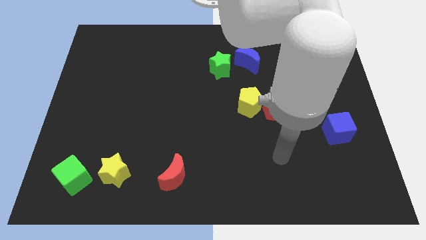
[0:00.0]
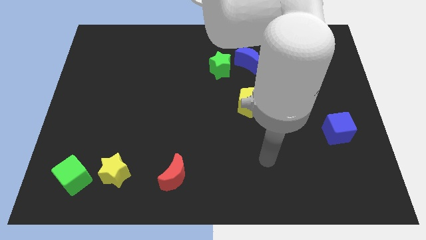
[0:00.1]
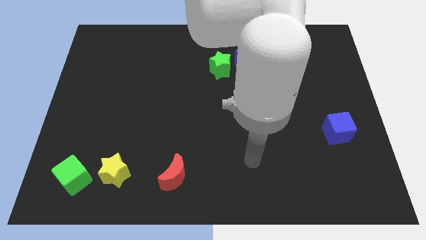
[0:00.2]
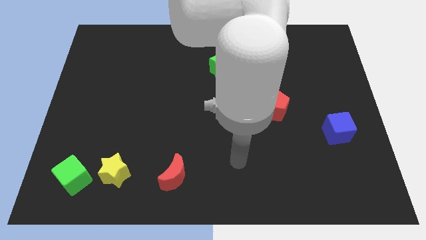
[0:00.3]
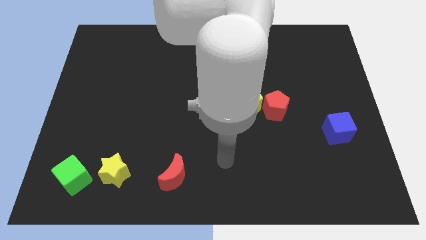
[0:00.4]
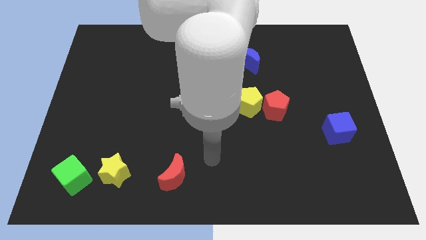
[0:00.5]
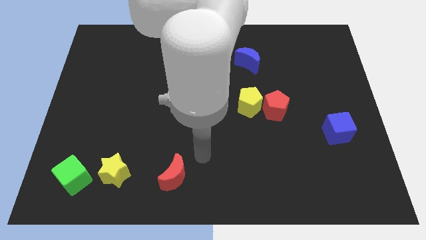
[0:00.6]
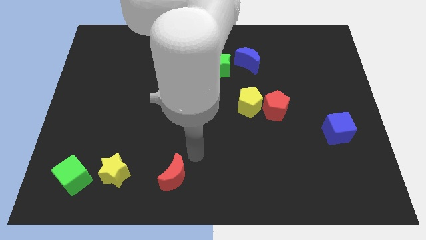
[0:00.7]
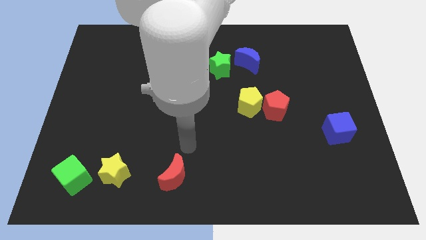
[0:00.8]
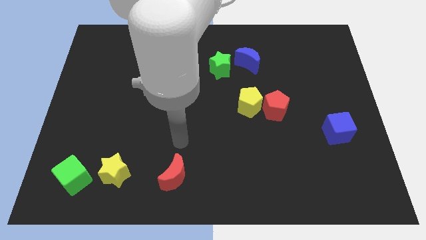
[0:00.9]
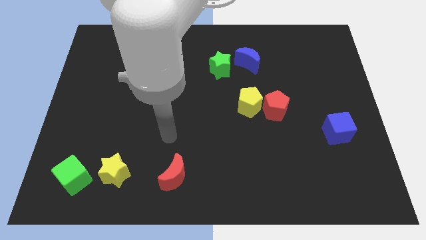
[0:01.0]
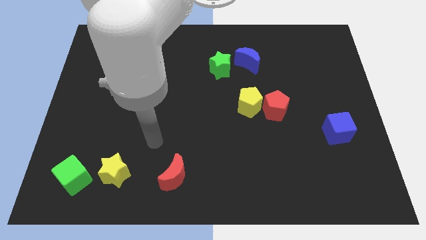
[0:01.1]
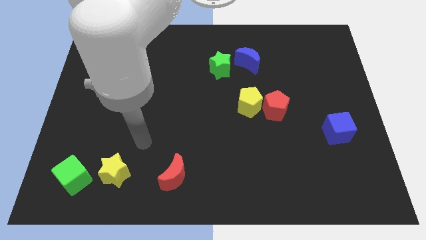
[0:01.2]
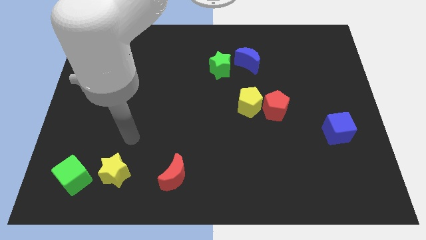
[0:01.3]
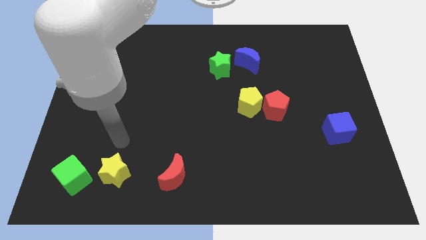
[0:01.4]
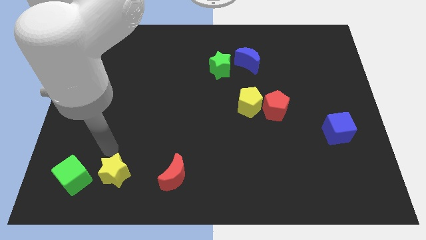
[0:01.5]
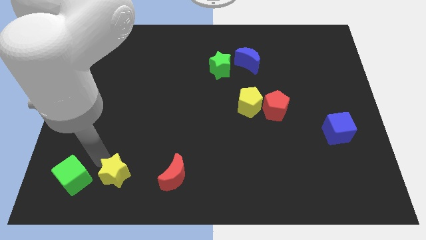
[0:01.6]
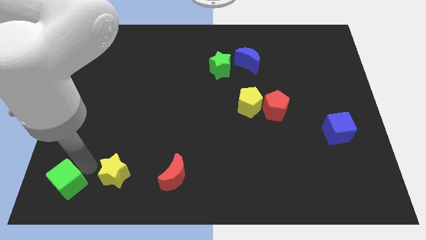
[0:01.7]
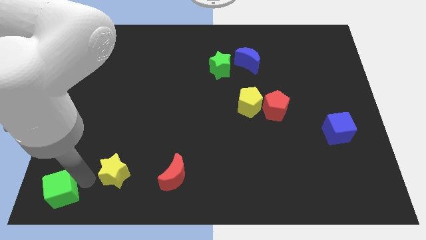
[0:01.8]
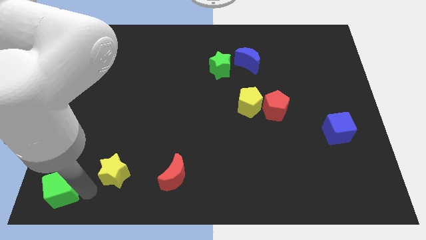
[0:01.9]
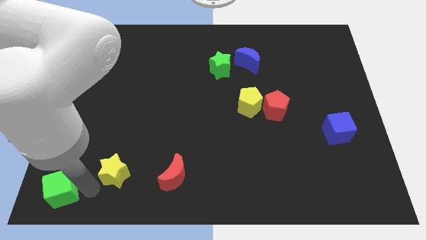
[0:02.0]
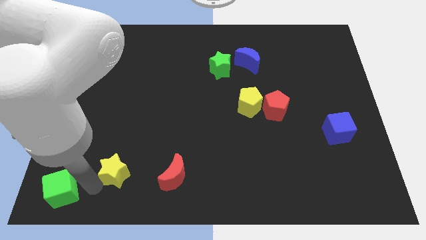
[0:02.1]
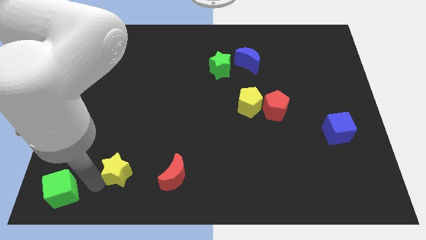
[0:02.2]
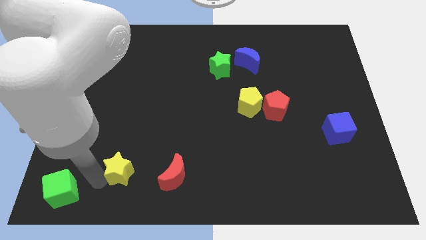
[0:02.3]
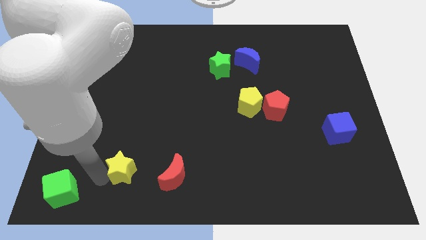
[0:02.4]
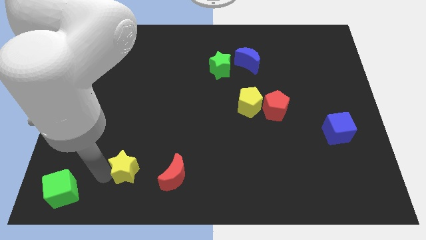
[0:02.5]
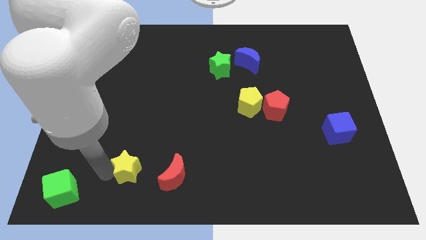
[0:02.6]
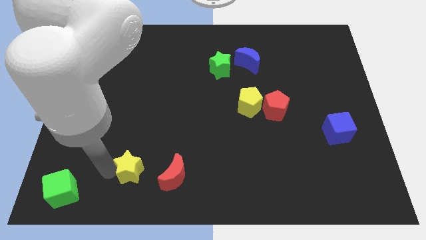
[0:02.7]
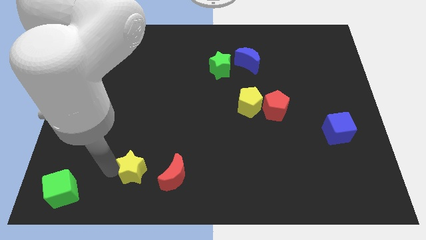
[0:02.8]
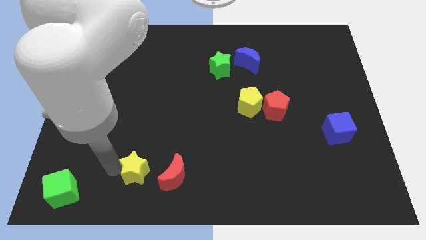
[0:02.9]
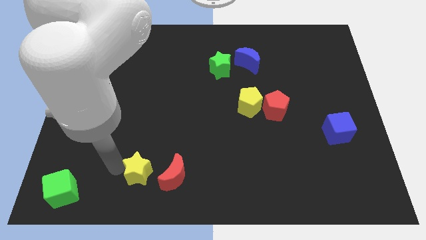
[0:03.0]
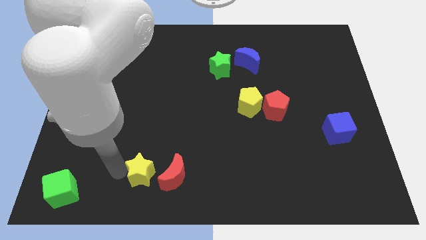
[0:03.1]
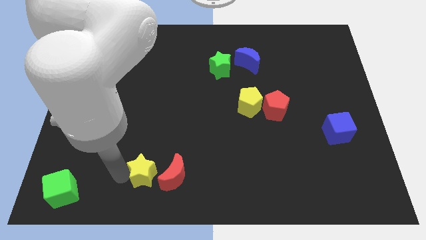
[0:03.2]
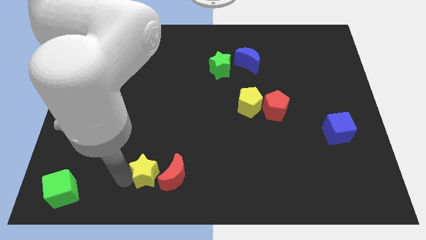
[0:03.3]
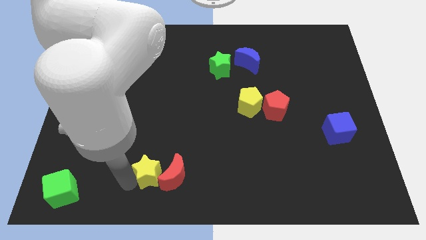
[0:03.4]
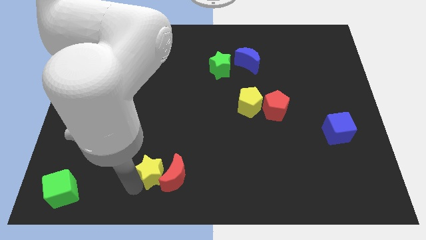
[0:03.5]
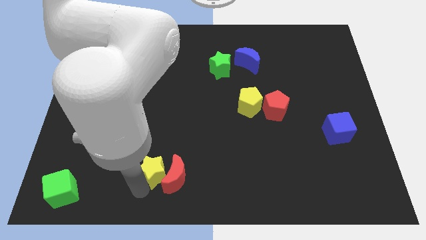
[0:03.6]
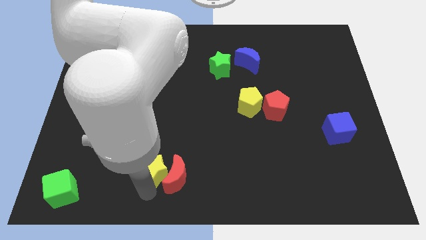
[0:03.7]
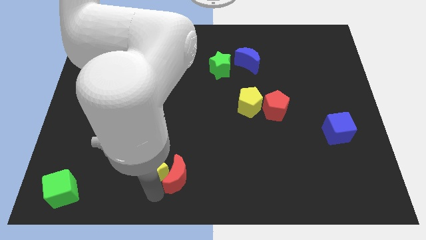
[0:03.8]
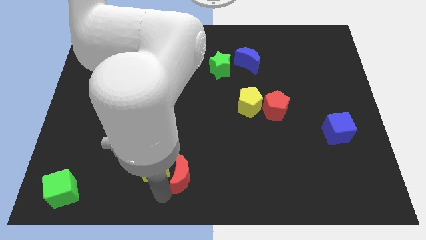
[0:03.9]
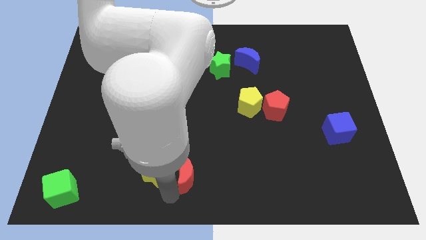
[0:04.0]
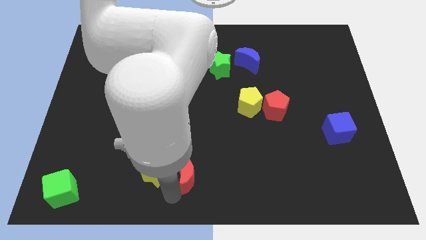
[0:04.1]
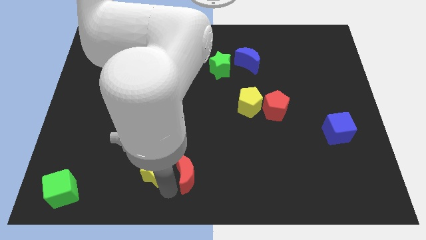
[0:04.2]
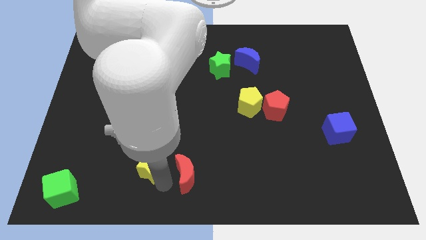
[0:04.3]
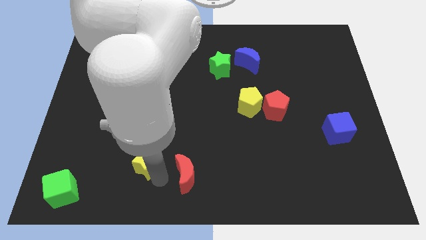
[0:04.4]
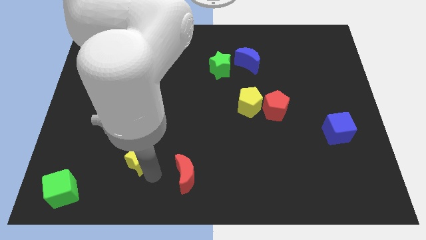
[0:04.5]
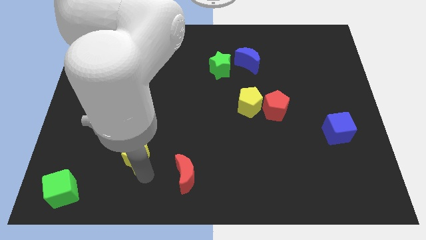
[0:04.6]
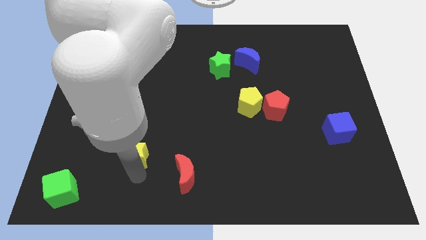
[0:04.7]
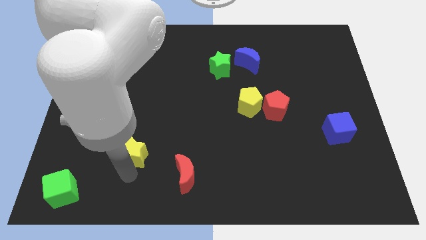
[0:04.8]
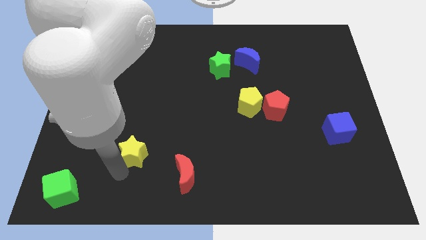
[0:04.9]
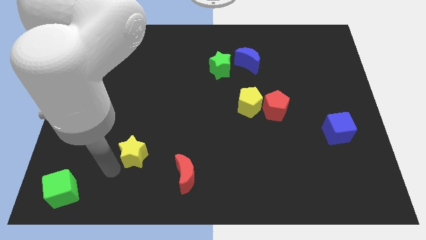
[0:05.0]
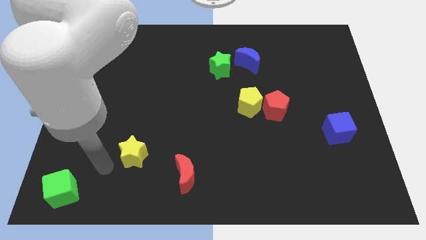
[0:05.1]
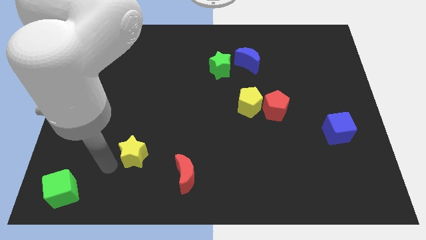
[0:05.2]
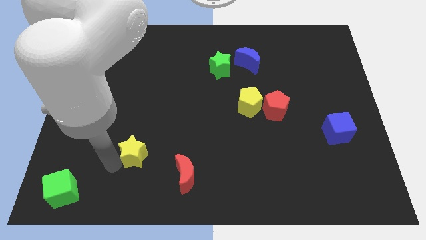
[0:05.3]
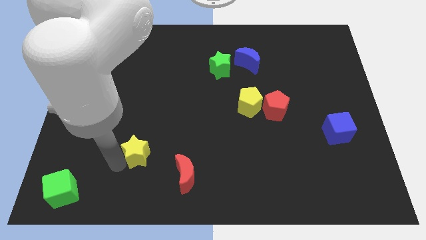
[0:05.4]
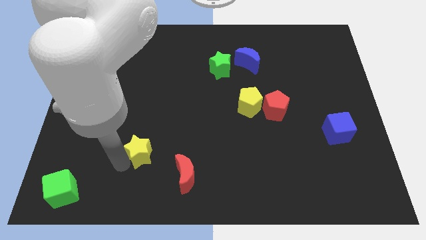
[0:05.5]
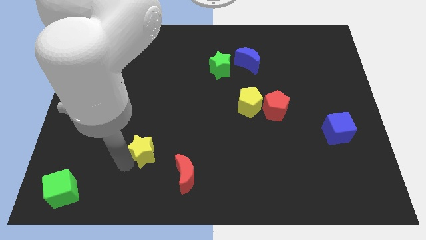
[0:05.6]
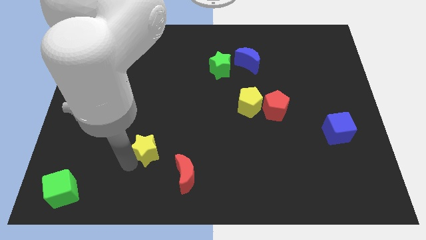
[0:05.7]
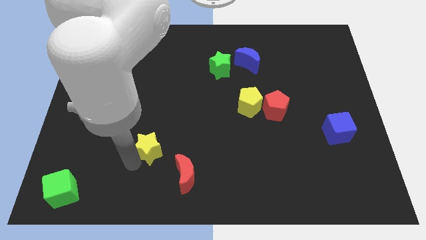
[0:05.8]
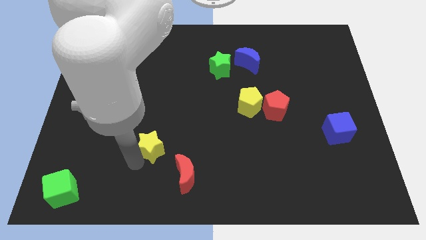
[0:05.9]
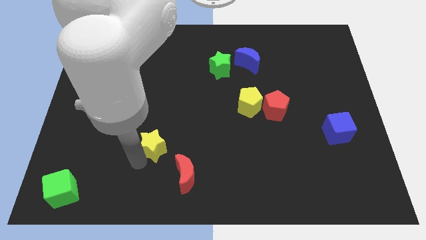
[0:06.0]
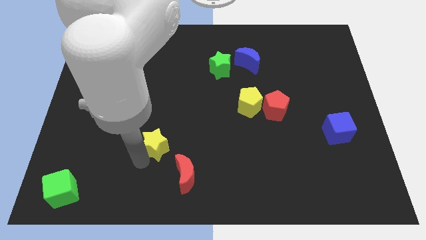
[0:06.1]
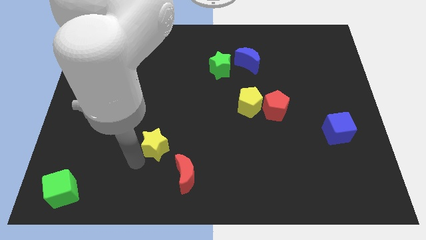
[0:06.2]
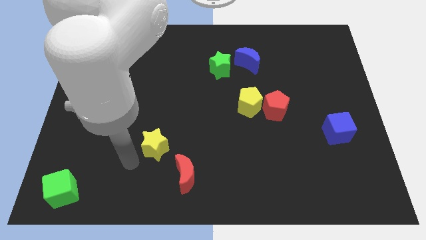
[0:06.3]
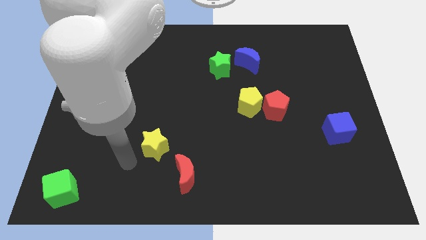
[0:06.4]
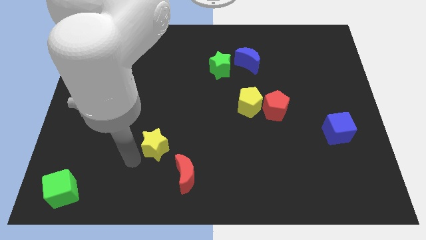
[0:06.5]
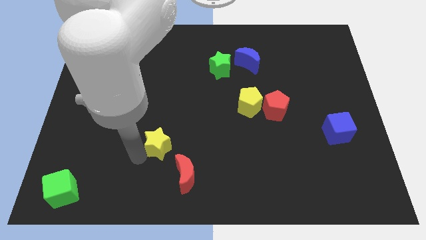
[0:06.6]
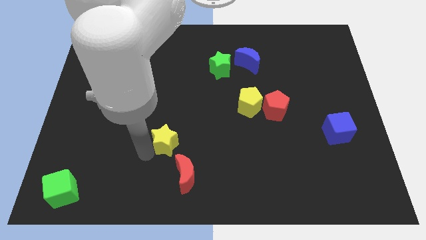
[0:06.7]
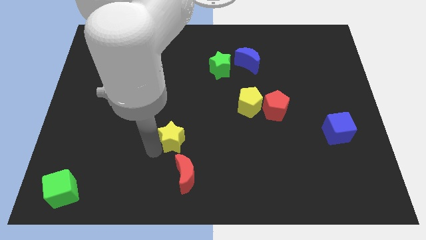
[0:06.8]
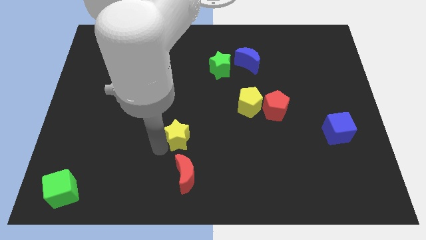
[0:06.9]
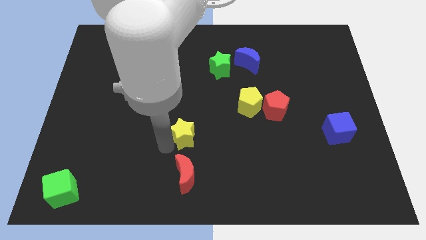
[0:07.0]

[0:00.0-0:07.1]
slide the yellow star to the middle of the board

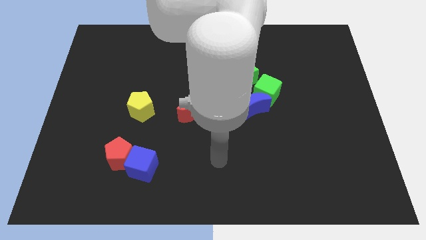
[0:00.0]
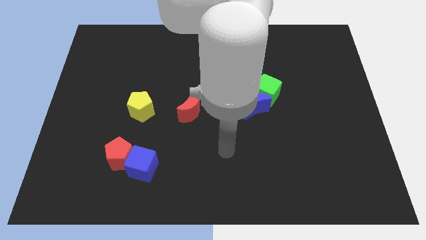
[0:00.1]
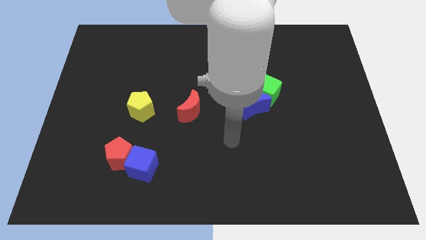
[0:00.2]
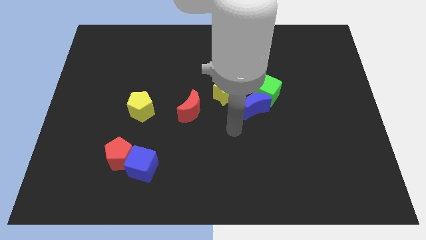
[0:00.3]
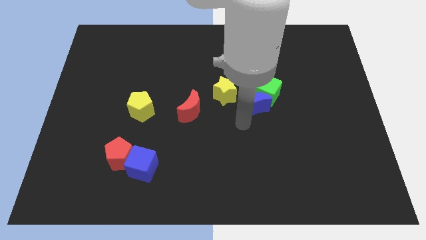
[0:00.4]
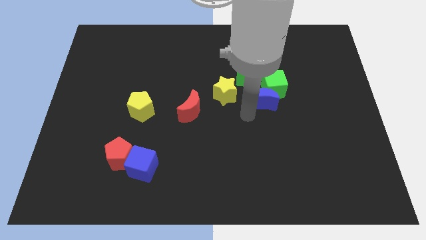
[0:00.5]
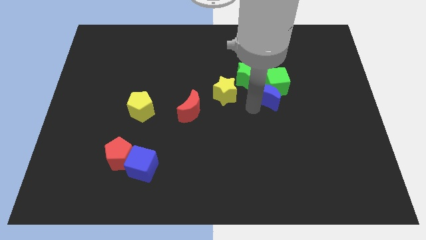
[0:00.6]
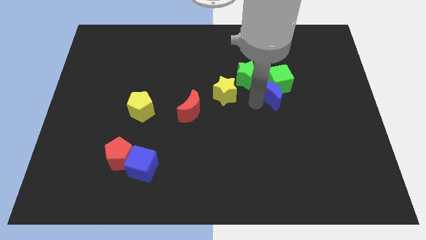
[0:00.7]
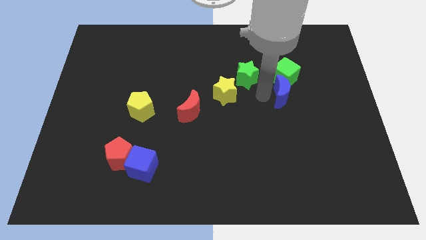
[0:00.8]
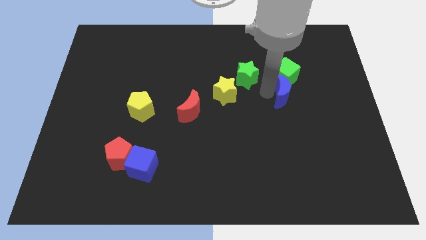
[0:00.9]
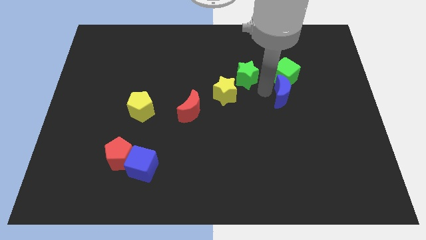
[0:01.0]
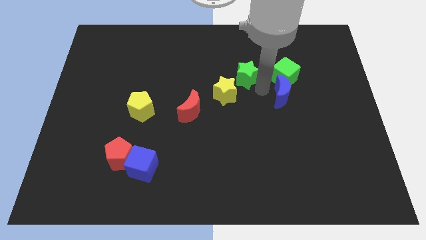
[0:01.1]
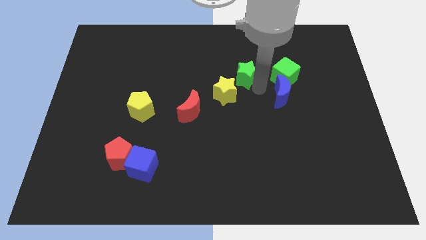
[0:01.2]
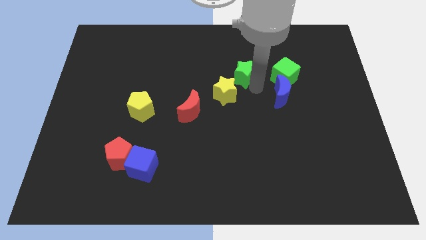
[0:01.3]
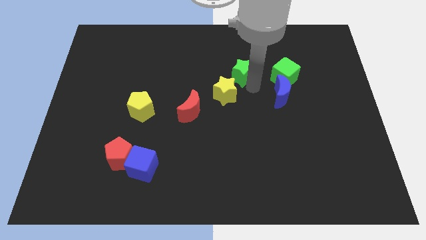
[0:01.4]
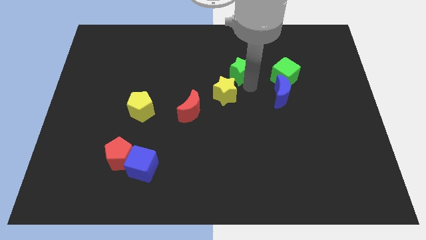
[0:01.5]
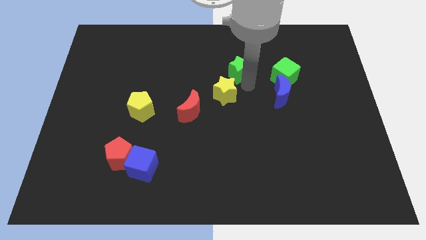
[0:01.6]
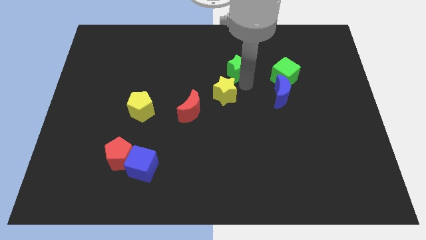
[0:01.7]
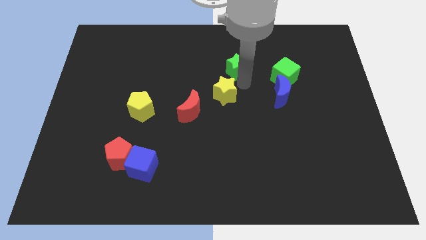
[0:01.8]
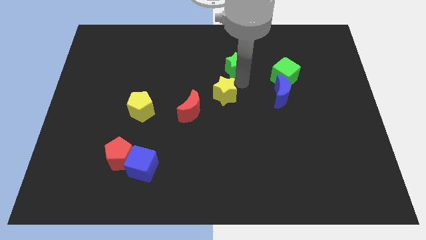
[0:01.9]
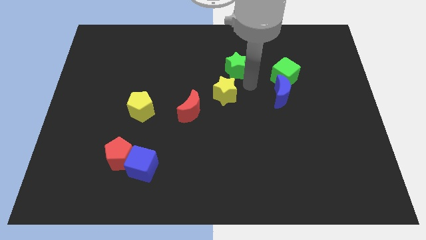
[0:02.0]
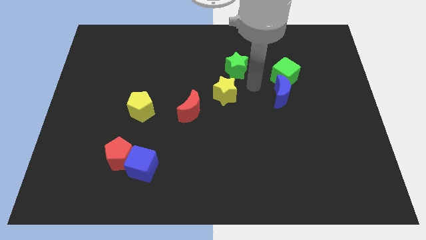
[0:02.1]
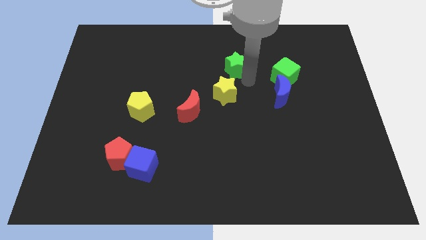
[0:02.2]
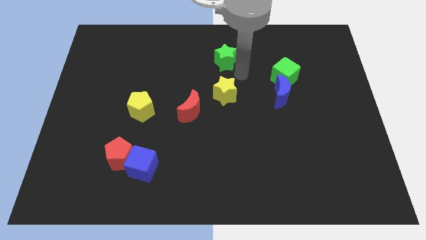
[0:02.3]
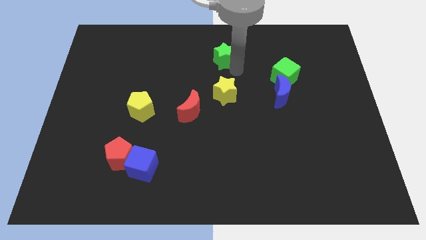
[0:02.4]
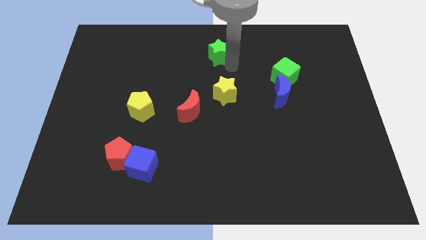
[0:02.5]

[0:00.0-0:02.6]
move the green star to the top
